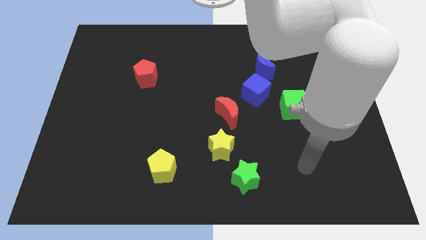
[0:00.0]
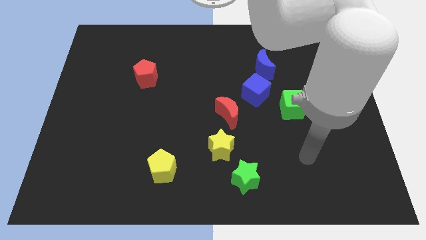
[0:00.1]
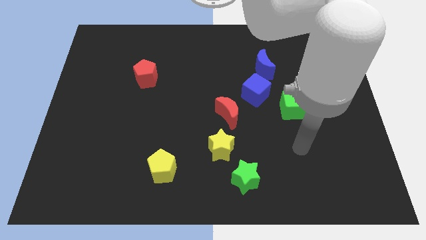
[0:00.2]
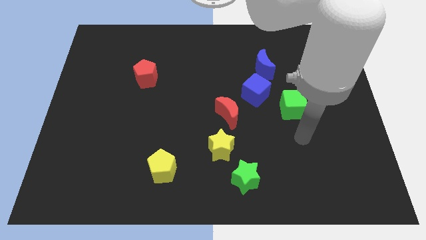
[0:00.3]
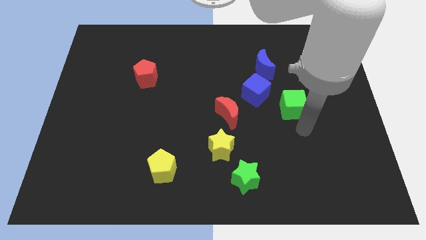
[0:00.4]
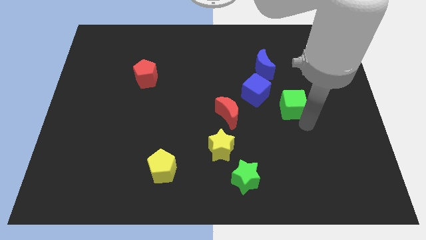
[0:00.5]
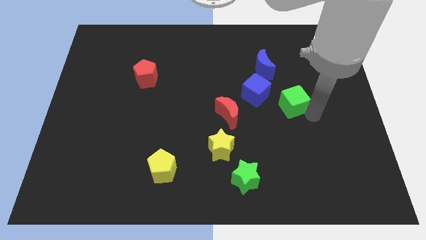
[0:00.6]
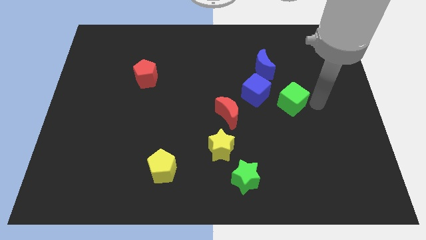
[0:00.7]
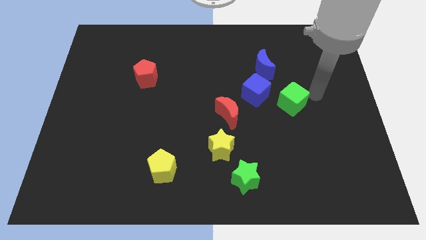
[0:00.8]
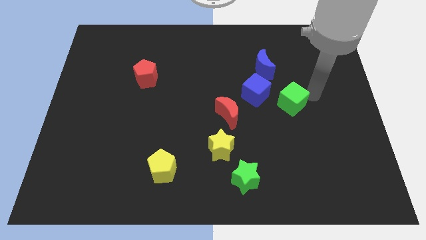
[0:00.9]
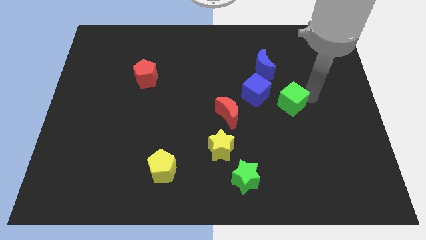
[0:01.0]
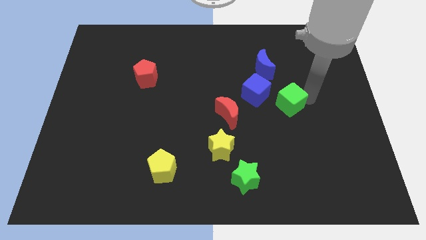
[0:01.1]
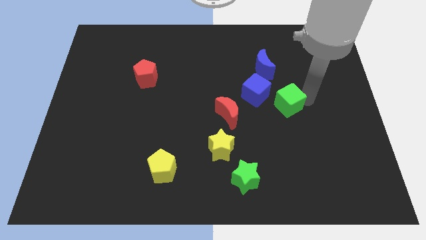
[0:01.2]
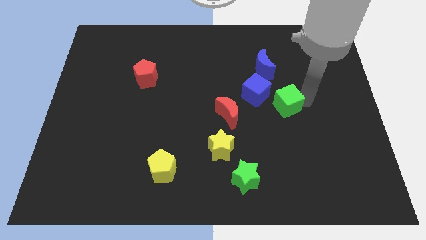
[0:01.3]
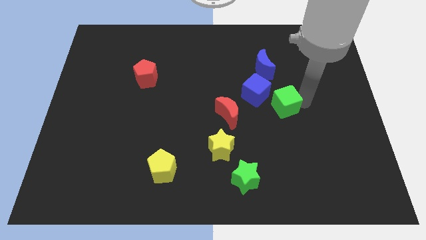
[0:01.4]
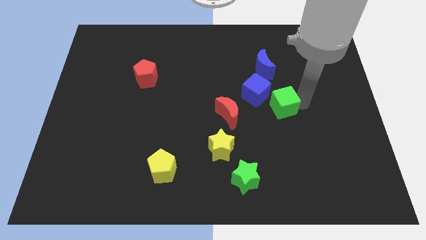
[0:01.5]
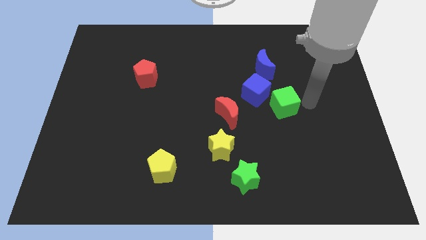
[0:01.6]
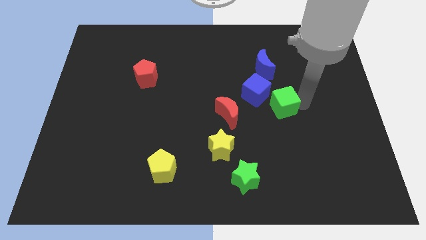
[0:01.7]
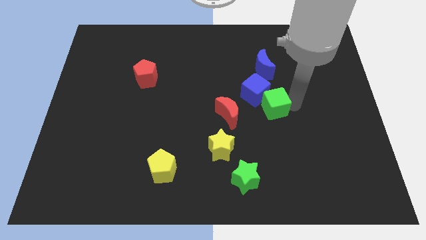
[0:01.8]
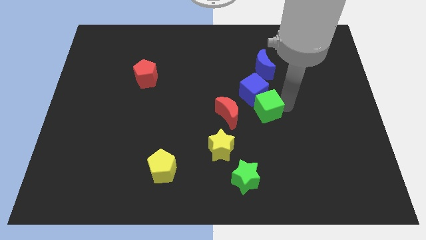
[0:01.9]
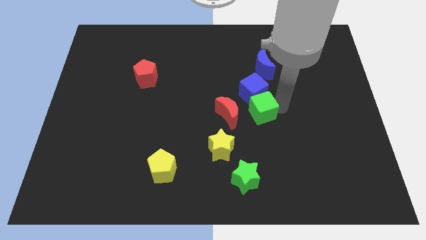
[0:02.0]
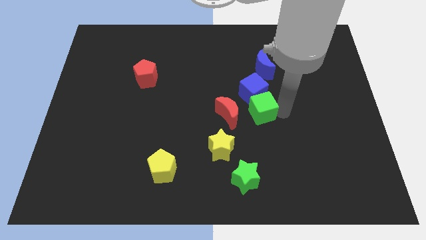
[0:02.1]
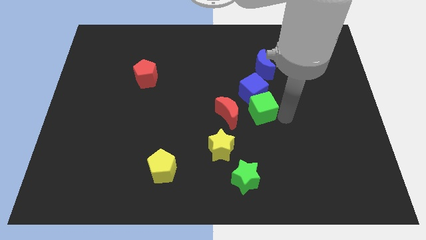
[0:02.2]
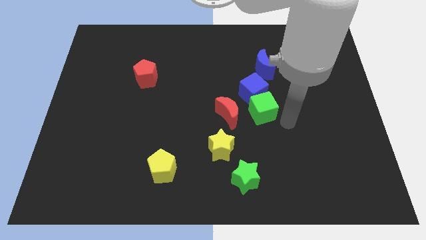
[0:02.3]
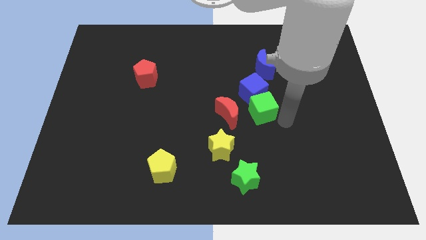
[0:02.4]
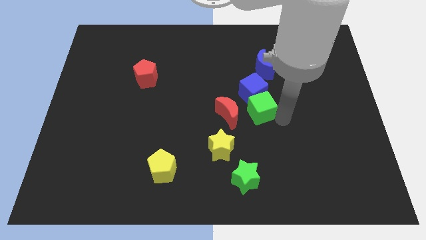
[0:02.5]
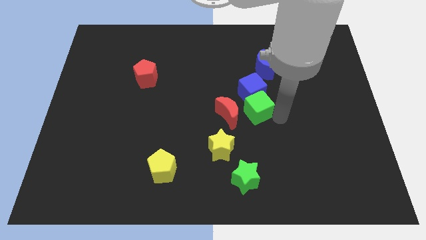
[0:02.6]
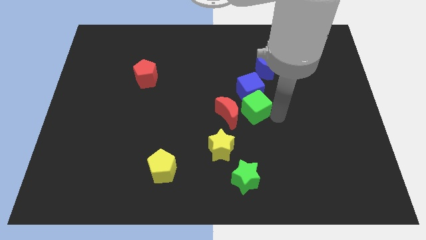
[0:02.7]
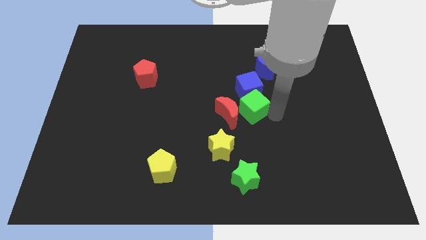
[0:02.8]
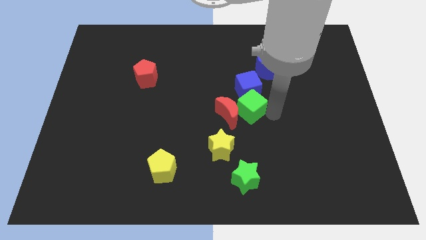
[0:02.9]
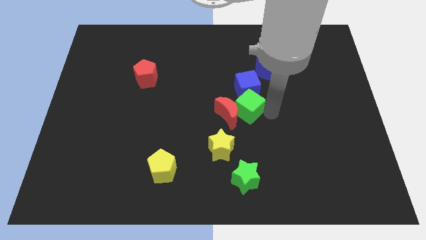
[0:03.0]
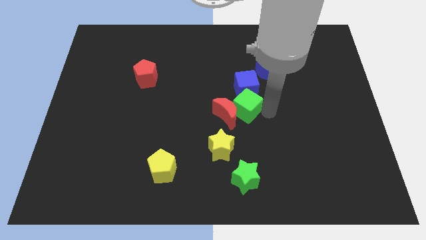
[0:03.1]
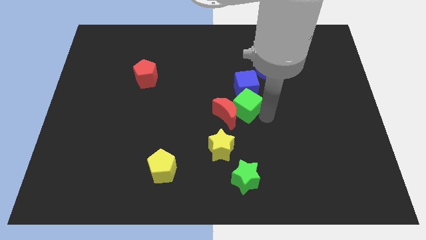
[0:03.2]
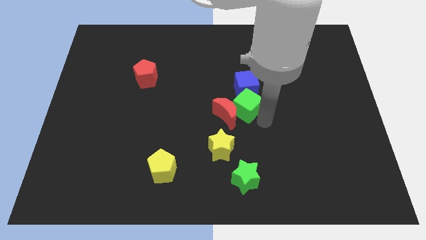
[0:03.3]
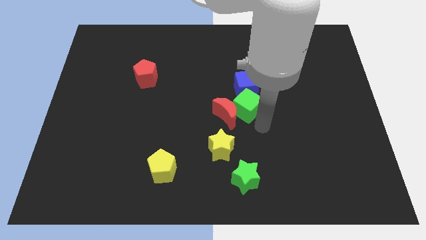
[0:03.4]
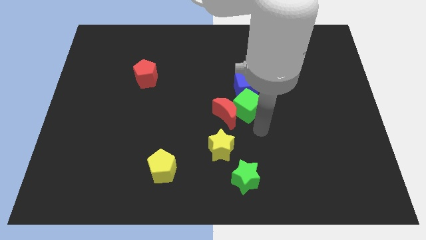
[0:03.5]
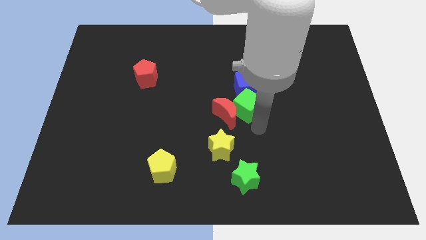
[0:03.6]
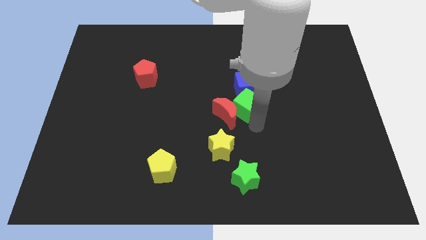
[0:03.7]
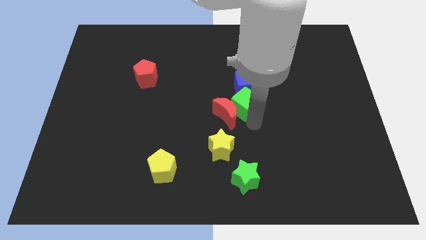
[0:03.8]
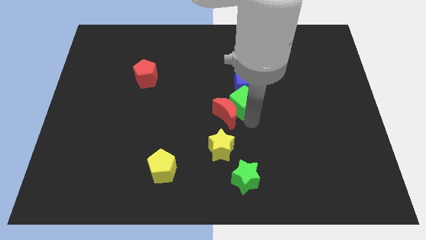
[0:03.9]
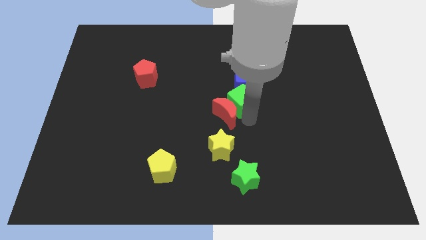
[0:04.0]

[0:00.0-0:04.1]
move the green cube upwards and to the left a little bit

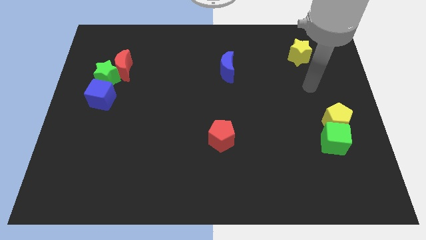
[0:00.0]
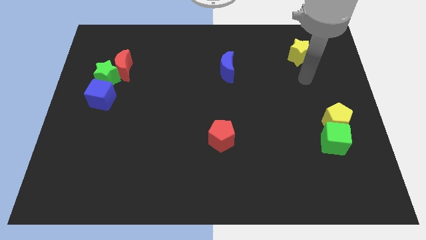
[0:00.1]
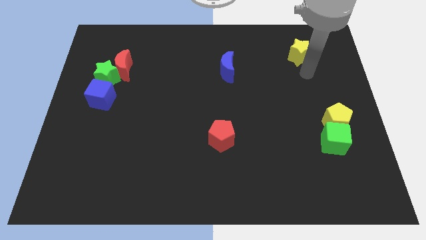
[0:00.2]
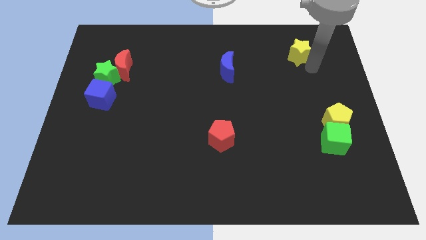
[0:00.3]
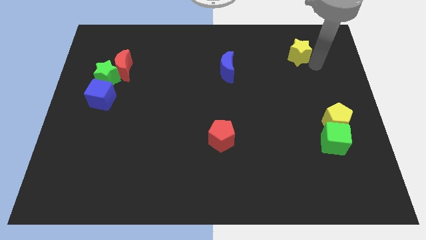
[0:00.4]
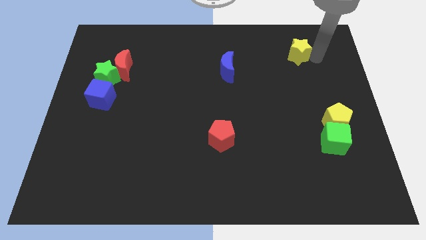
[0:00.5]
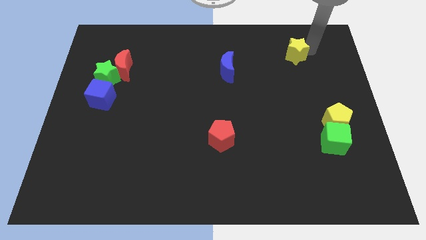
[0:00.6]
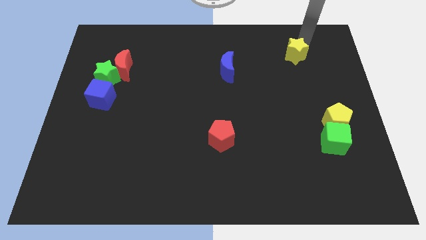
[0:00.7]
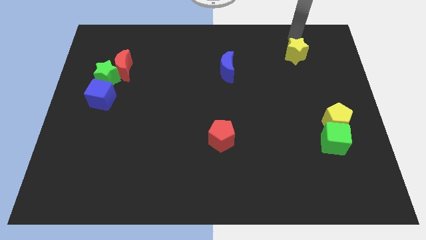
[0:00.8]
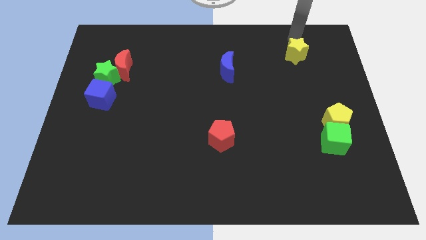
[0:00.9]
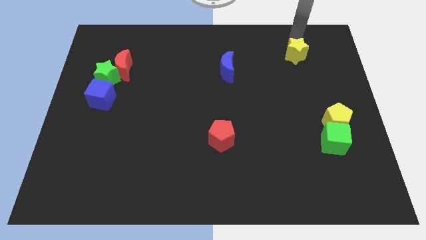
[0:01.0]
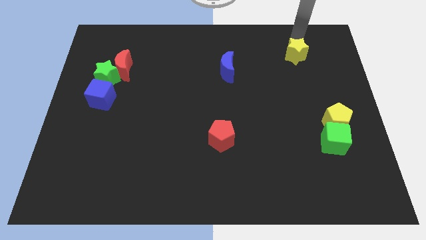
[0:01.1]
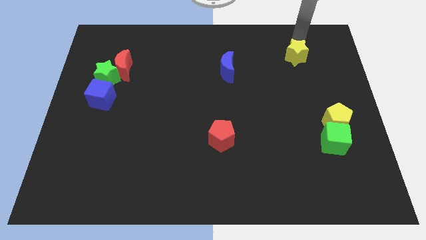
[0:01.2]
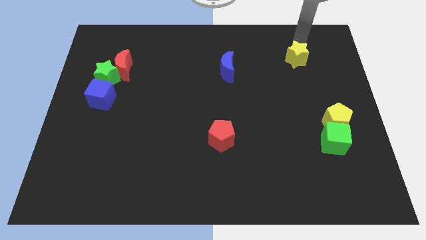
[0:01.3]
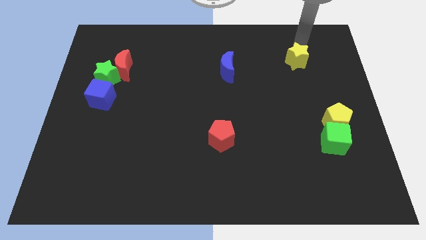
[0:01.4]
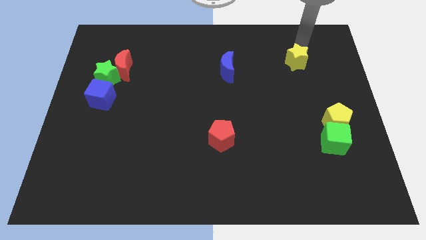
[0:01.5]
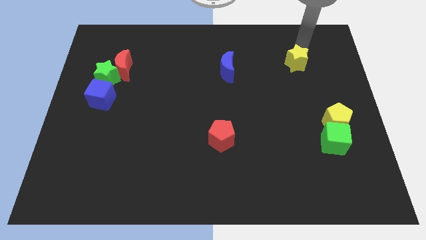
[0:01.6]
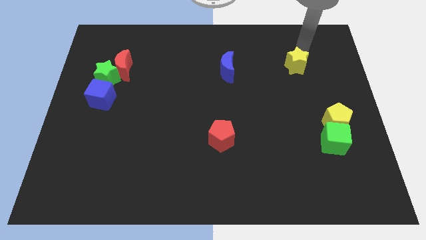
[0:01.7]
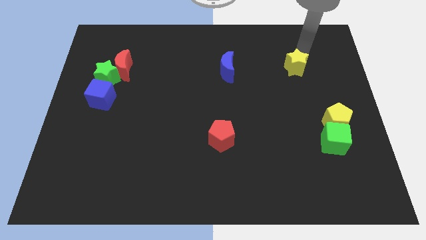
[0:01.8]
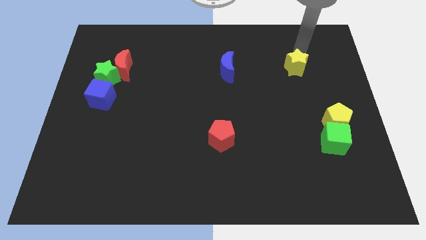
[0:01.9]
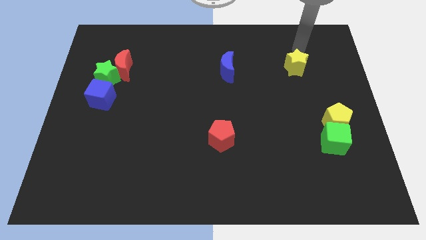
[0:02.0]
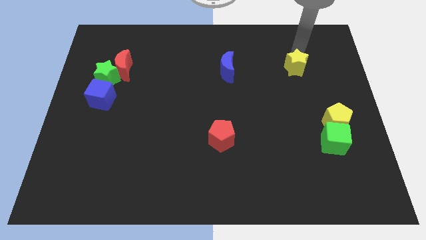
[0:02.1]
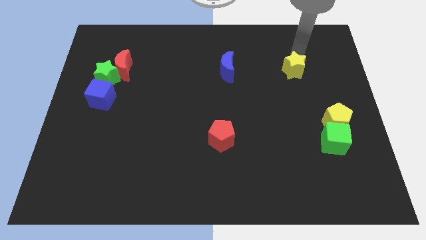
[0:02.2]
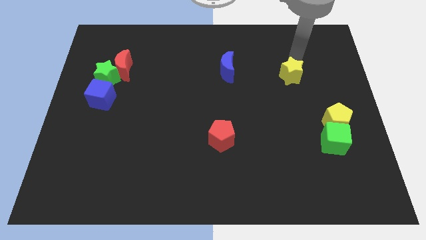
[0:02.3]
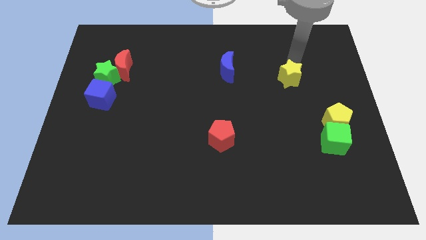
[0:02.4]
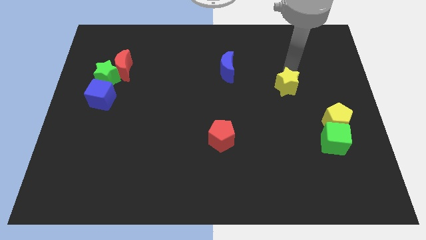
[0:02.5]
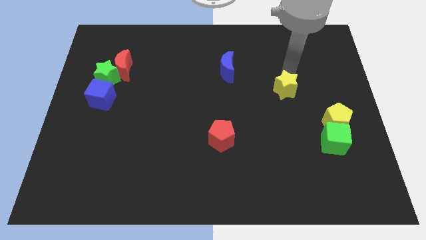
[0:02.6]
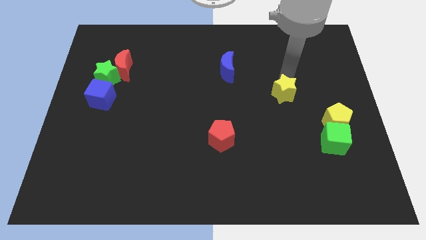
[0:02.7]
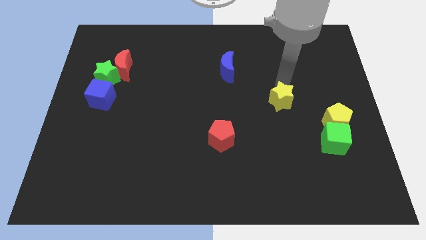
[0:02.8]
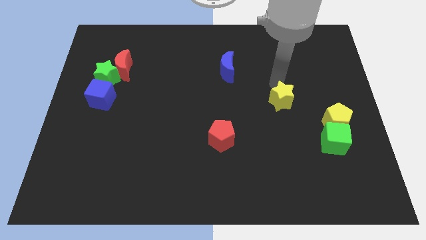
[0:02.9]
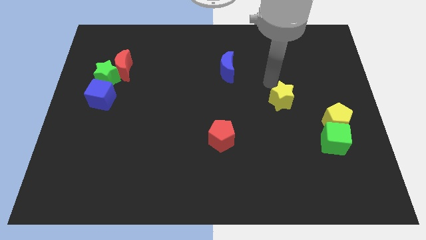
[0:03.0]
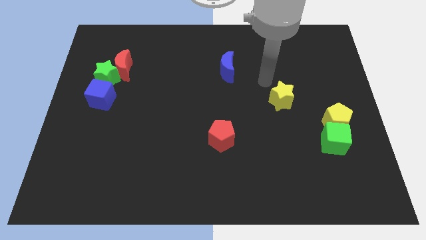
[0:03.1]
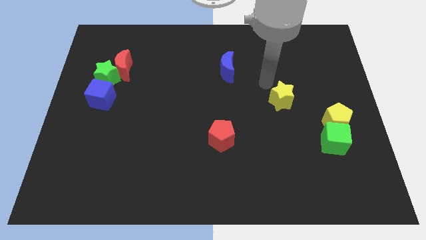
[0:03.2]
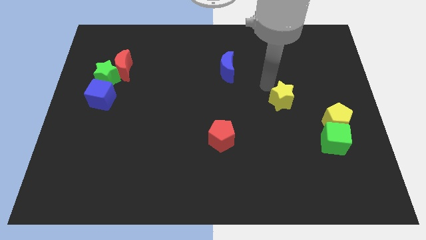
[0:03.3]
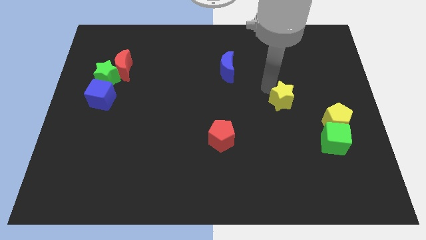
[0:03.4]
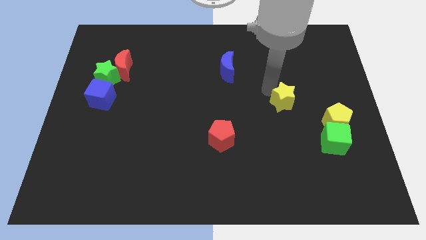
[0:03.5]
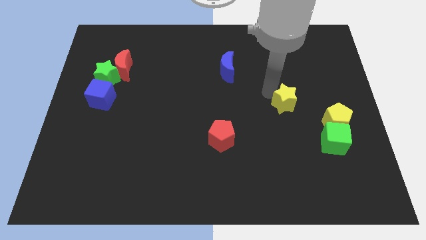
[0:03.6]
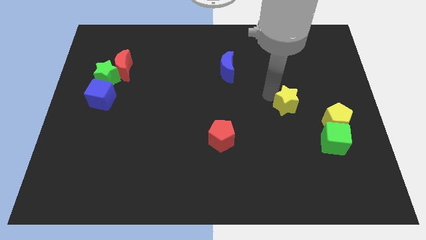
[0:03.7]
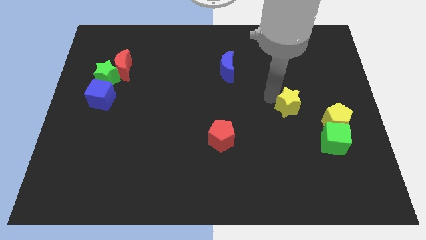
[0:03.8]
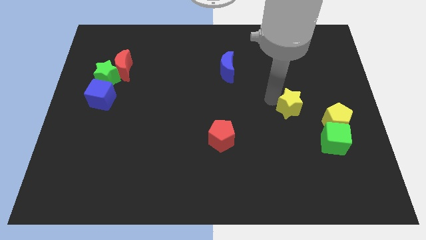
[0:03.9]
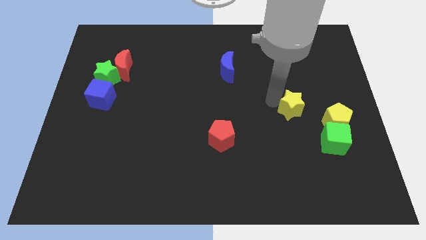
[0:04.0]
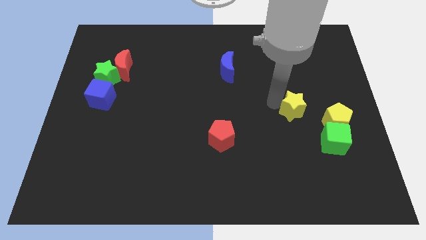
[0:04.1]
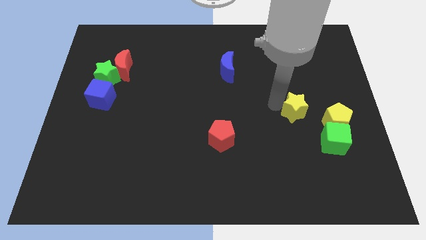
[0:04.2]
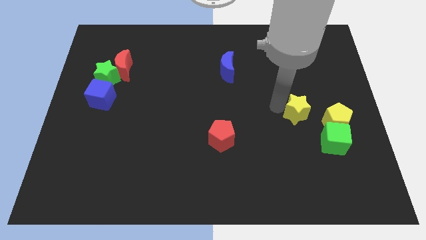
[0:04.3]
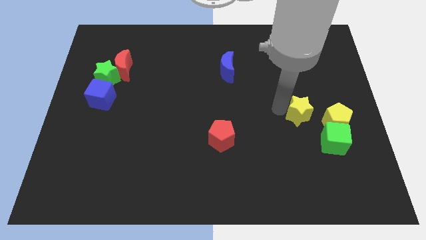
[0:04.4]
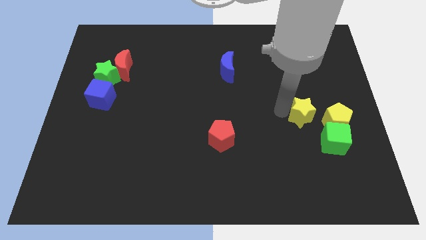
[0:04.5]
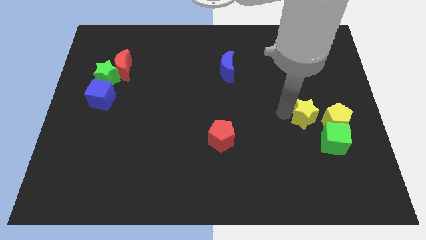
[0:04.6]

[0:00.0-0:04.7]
push the yellow star down
